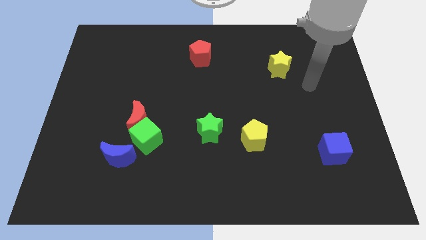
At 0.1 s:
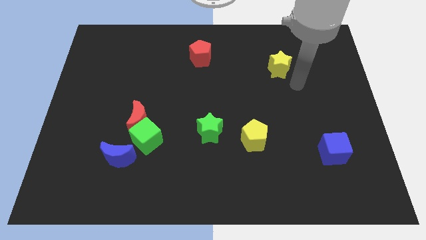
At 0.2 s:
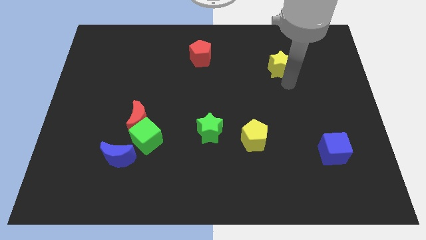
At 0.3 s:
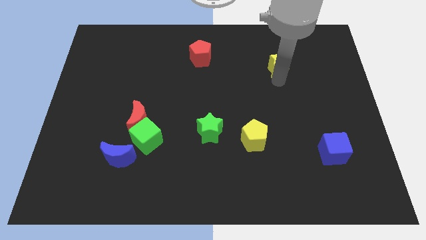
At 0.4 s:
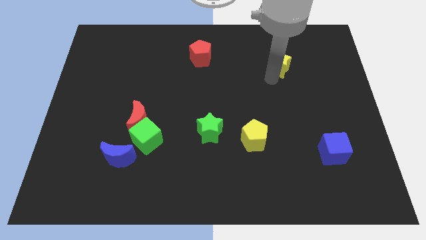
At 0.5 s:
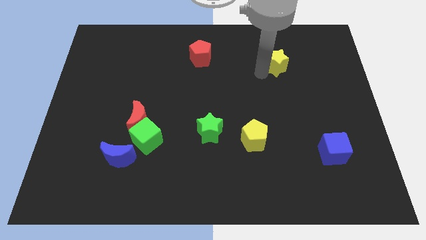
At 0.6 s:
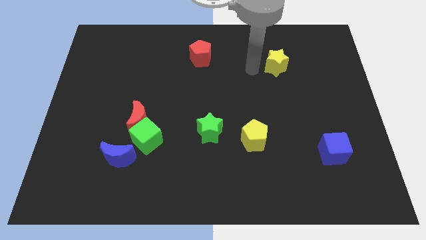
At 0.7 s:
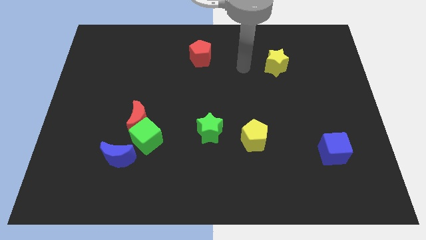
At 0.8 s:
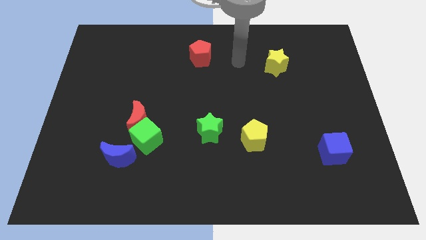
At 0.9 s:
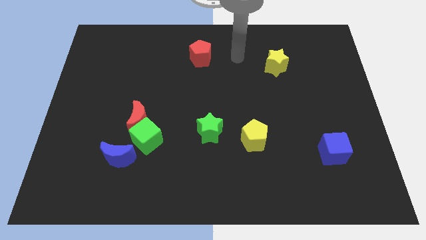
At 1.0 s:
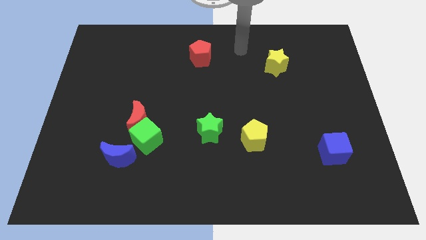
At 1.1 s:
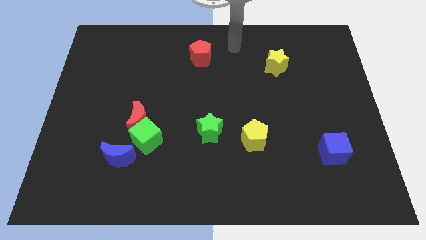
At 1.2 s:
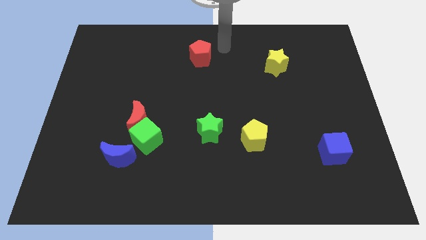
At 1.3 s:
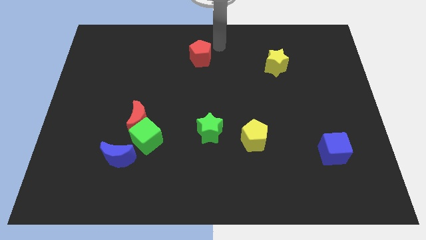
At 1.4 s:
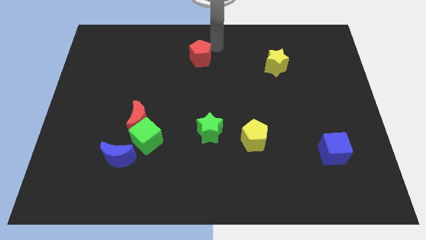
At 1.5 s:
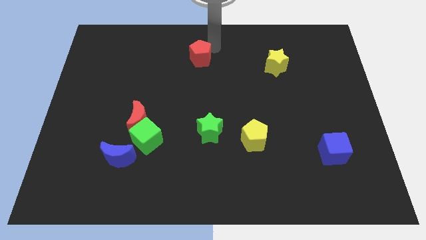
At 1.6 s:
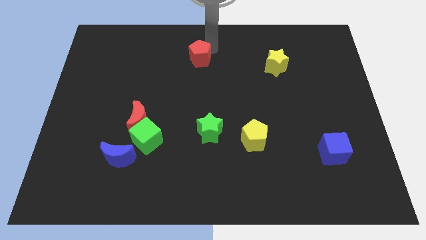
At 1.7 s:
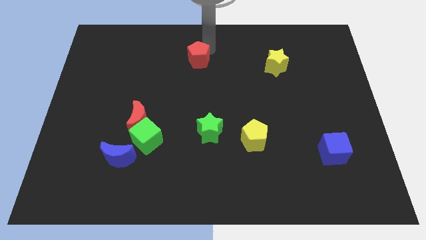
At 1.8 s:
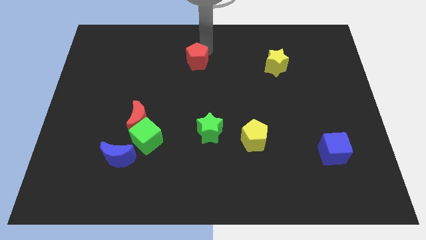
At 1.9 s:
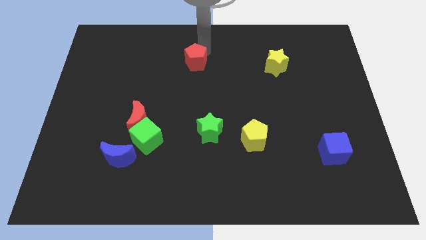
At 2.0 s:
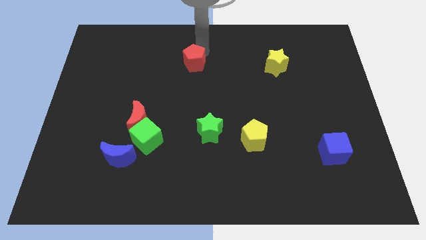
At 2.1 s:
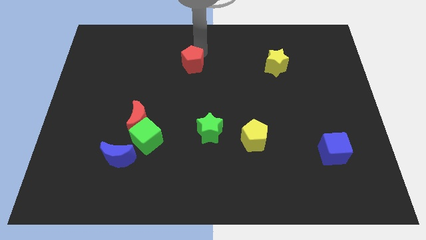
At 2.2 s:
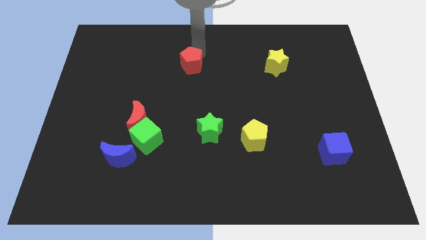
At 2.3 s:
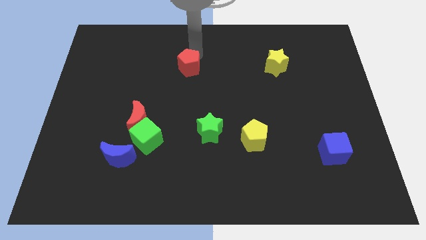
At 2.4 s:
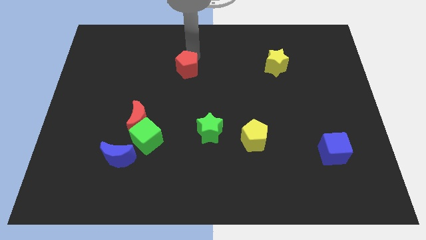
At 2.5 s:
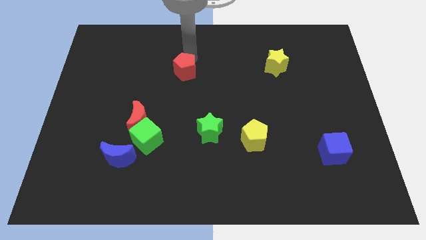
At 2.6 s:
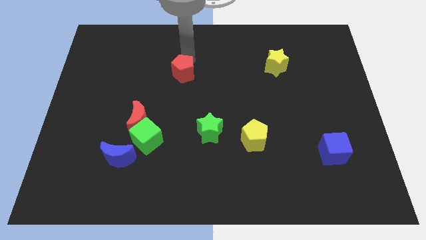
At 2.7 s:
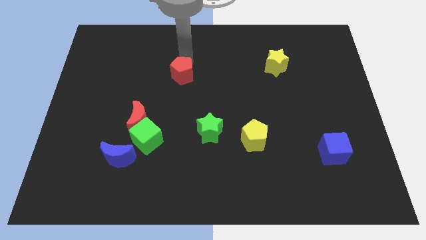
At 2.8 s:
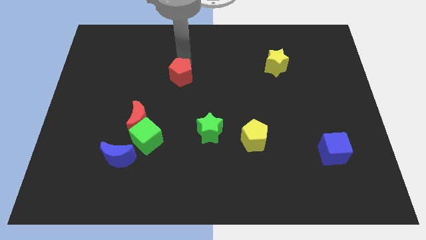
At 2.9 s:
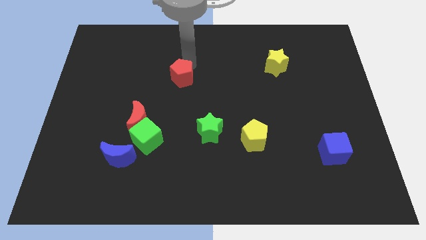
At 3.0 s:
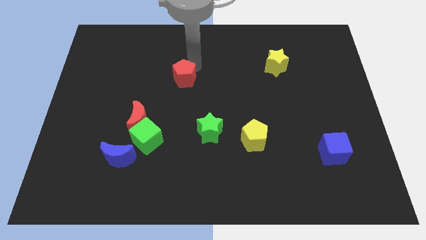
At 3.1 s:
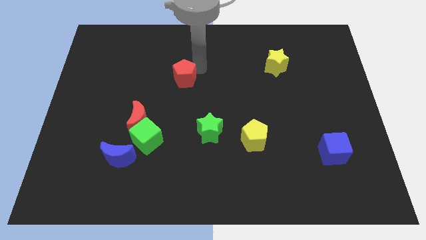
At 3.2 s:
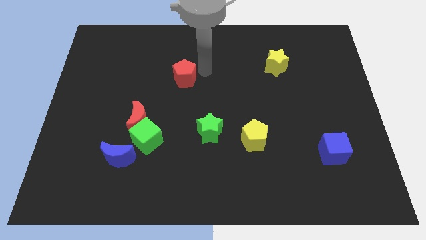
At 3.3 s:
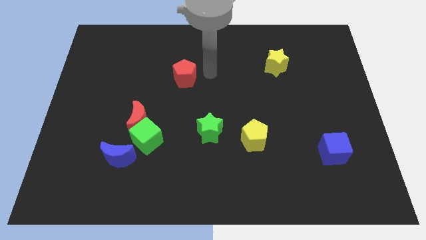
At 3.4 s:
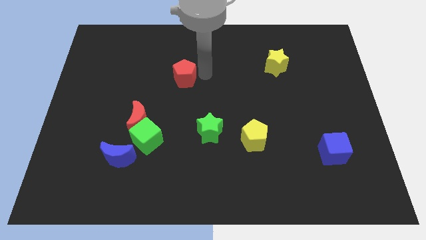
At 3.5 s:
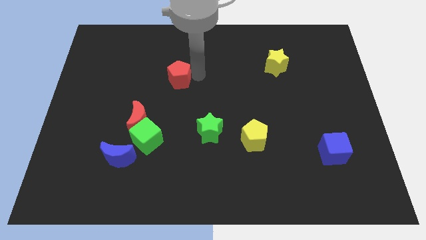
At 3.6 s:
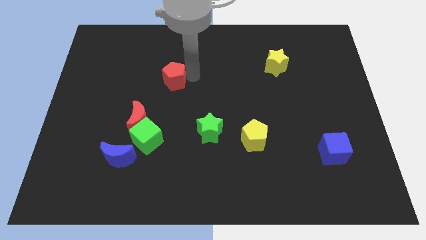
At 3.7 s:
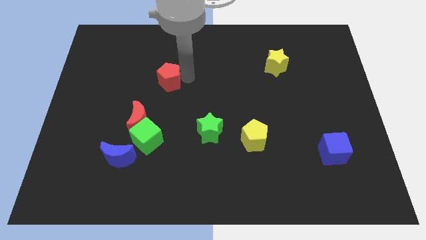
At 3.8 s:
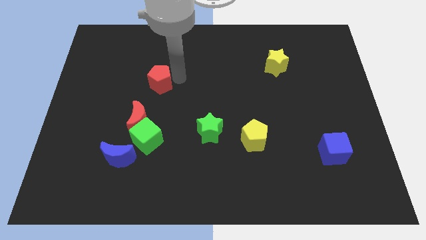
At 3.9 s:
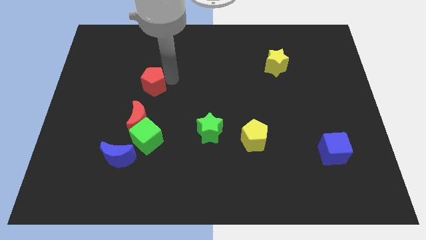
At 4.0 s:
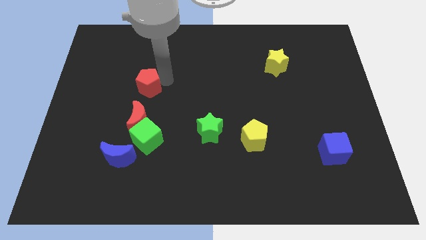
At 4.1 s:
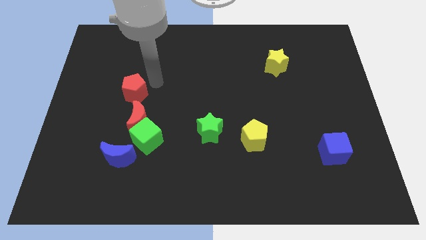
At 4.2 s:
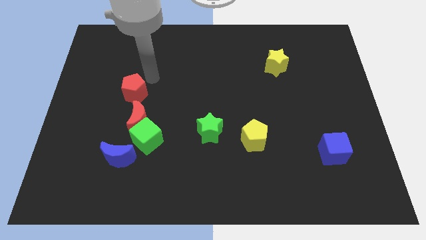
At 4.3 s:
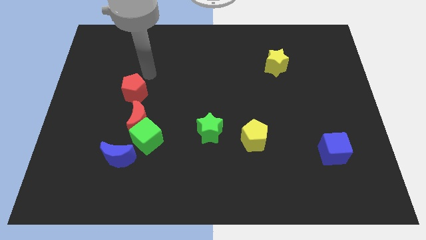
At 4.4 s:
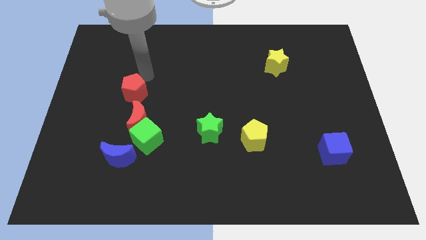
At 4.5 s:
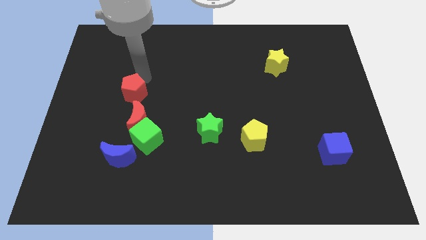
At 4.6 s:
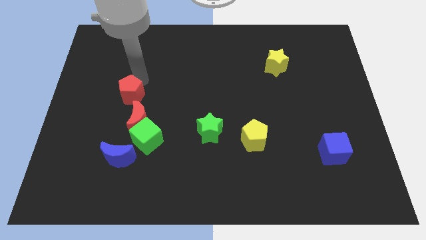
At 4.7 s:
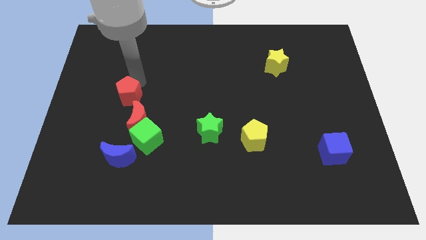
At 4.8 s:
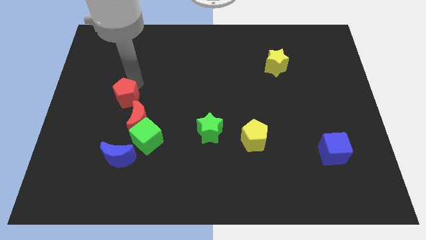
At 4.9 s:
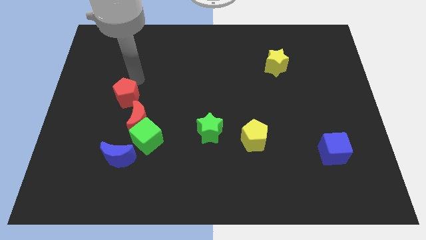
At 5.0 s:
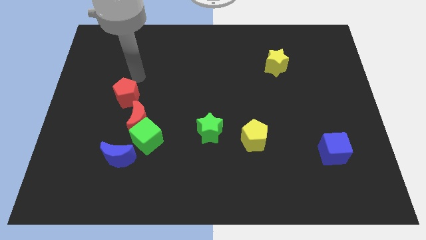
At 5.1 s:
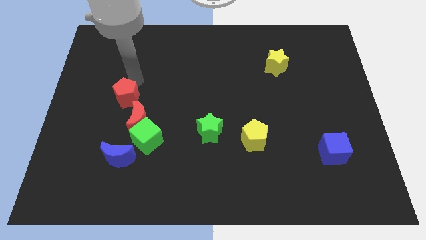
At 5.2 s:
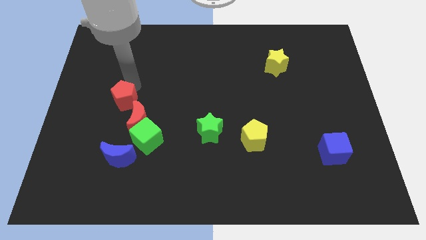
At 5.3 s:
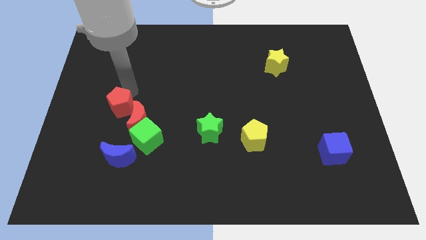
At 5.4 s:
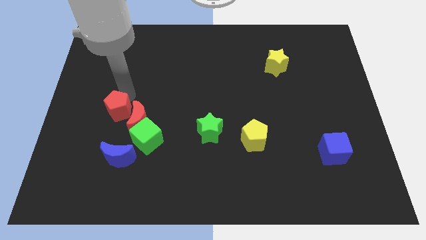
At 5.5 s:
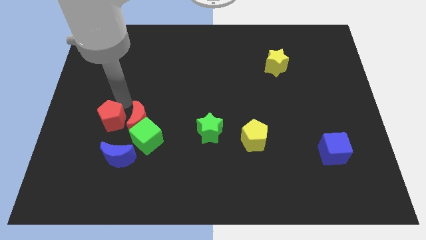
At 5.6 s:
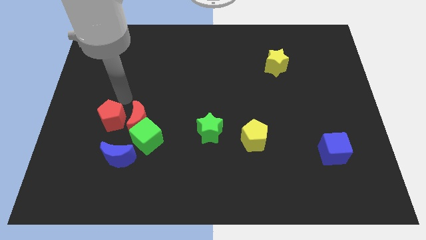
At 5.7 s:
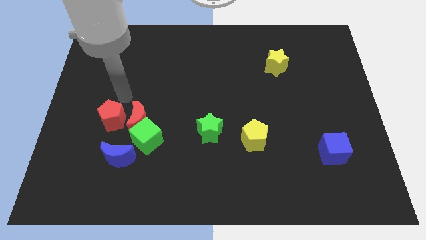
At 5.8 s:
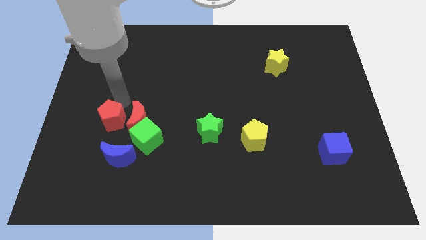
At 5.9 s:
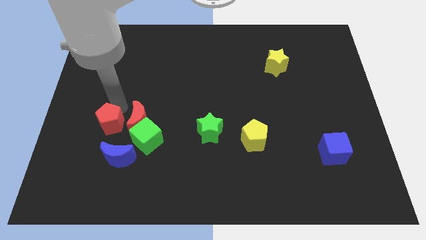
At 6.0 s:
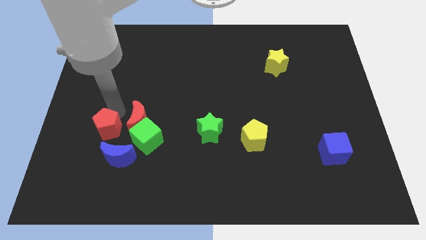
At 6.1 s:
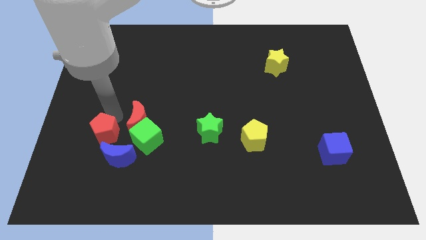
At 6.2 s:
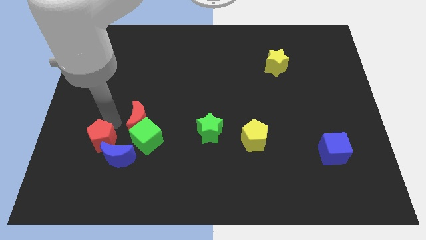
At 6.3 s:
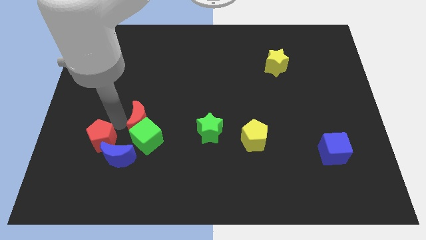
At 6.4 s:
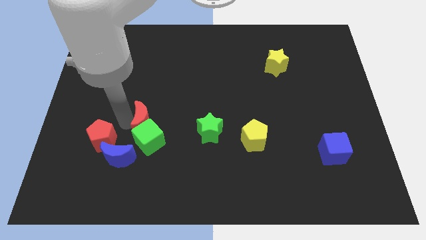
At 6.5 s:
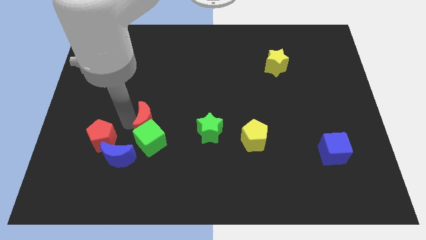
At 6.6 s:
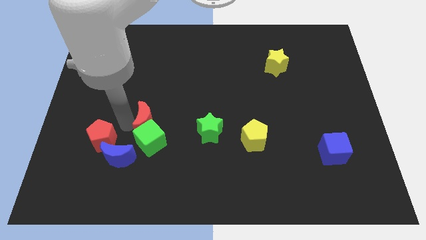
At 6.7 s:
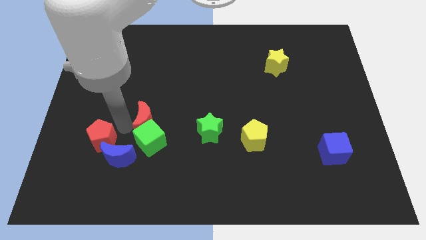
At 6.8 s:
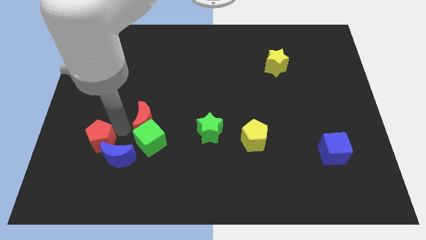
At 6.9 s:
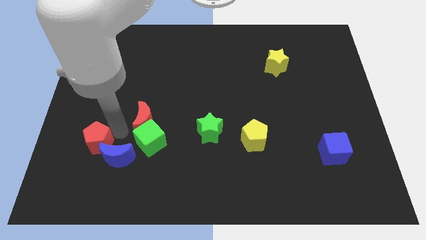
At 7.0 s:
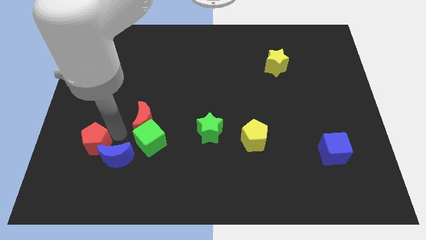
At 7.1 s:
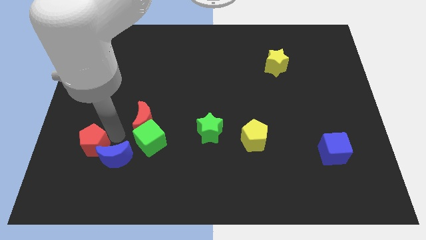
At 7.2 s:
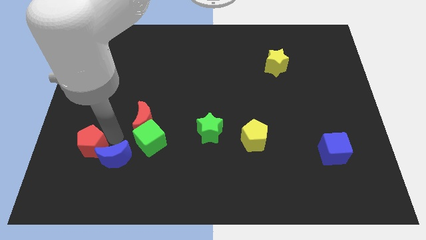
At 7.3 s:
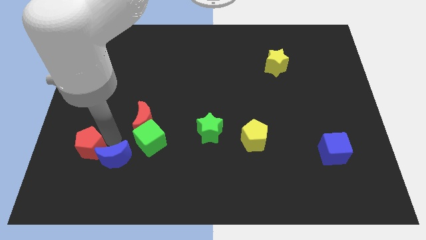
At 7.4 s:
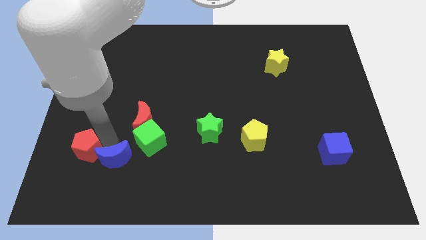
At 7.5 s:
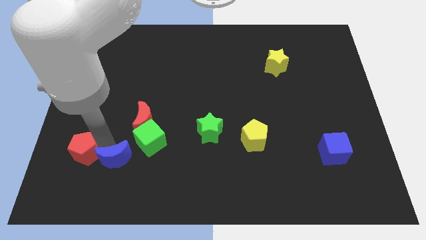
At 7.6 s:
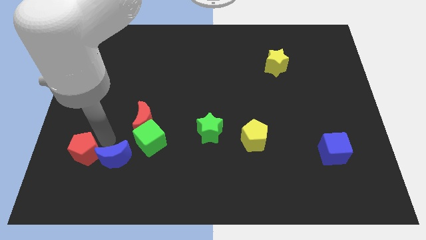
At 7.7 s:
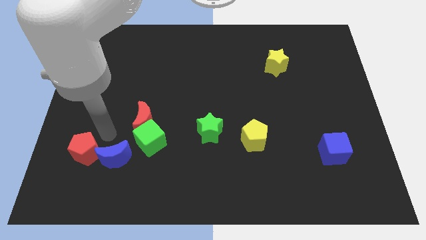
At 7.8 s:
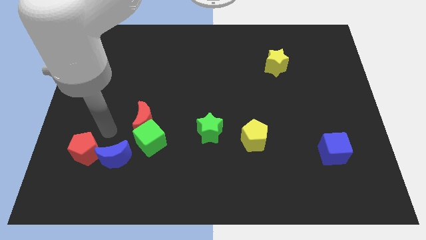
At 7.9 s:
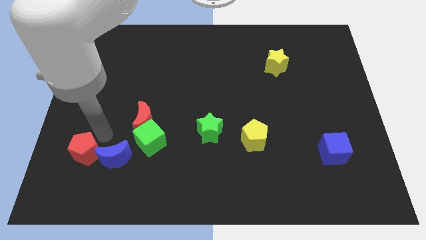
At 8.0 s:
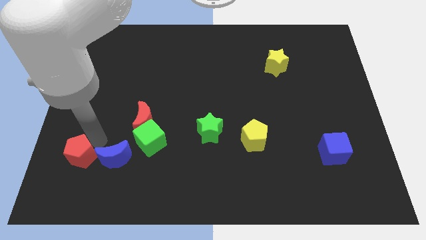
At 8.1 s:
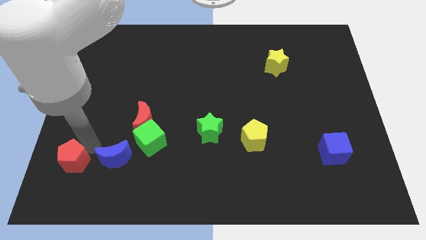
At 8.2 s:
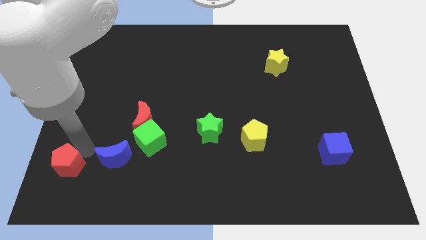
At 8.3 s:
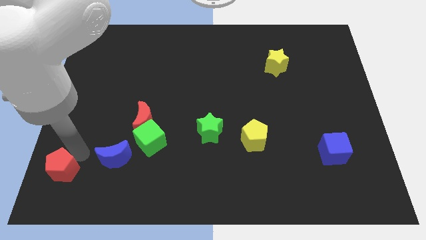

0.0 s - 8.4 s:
put the red pentagon to the lower left corner
